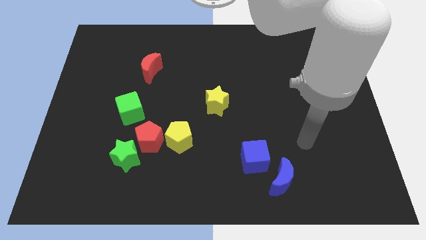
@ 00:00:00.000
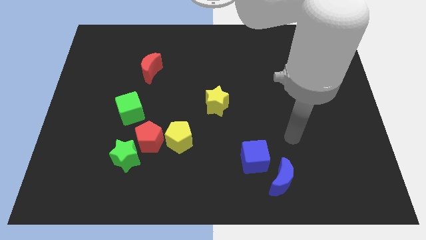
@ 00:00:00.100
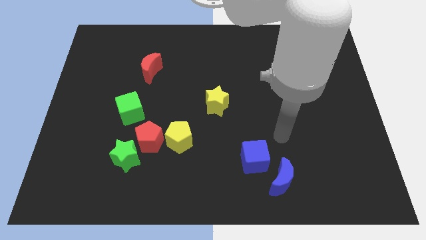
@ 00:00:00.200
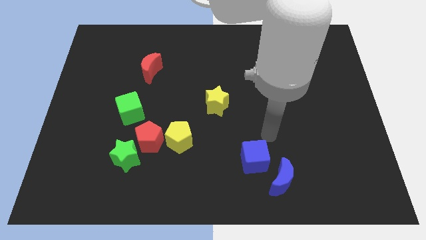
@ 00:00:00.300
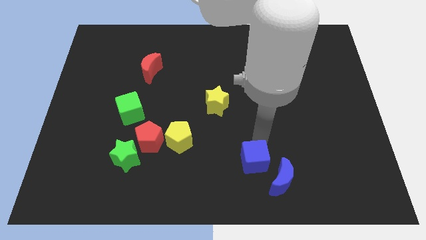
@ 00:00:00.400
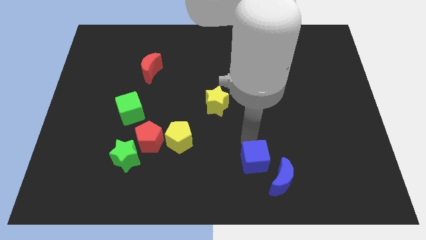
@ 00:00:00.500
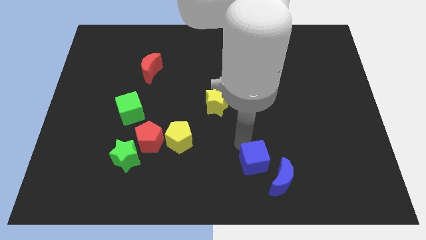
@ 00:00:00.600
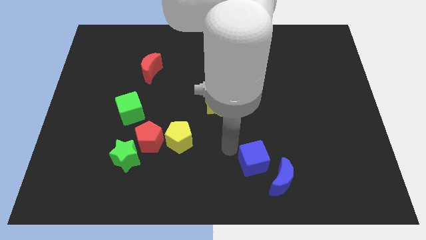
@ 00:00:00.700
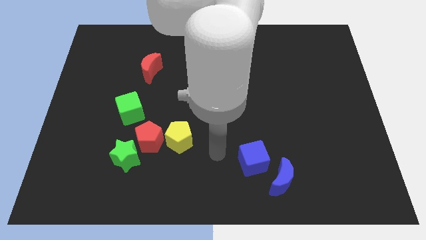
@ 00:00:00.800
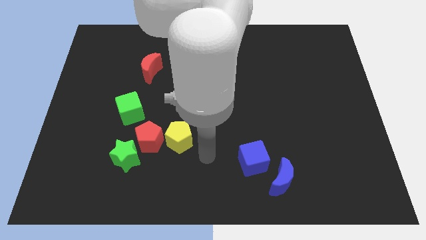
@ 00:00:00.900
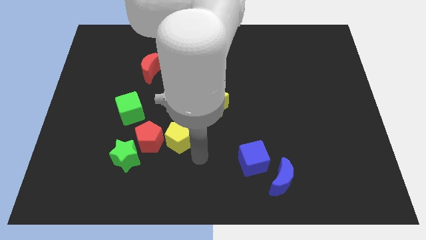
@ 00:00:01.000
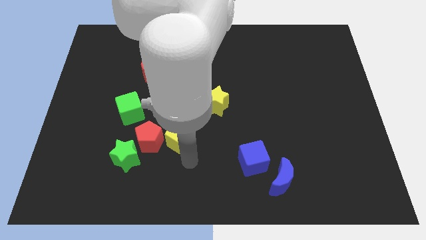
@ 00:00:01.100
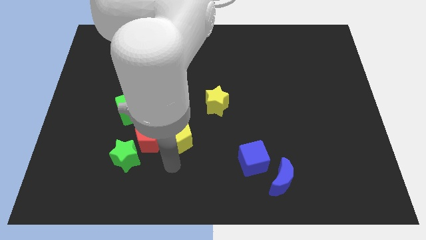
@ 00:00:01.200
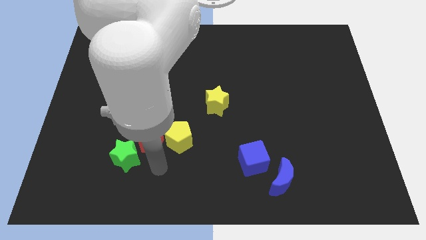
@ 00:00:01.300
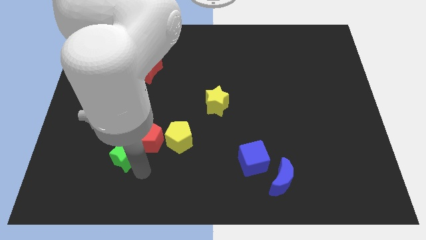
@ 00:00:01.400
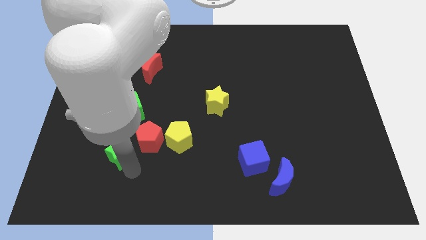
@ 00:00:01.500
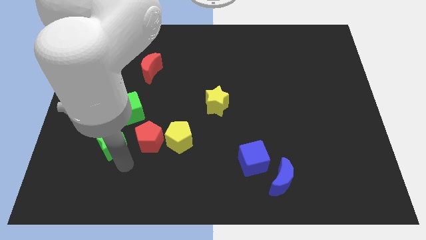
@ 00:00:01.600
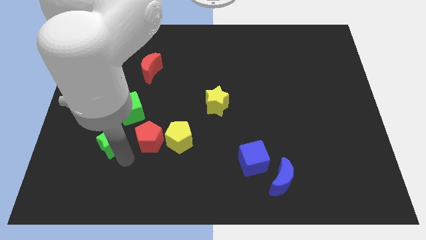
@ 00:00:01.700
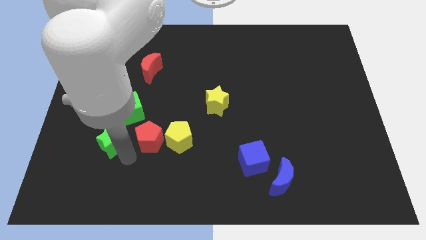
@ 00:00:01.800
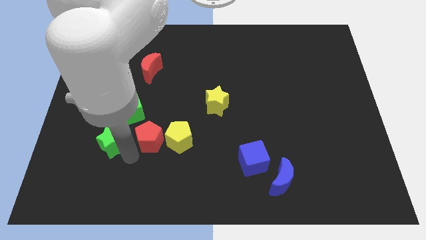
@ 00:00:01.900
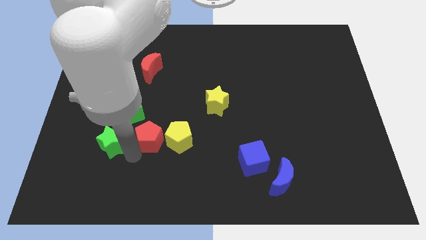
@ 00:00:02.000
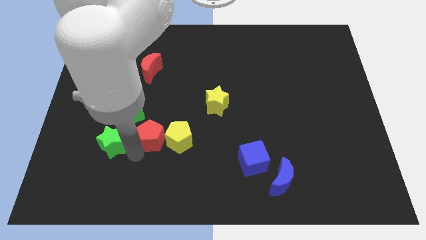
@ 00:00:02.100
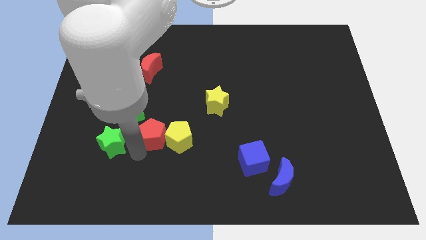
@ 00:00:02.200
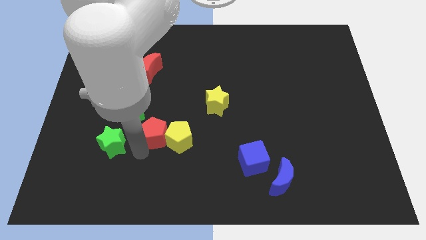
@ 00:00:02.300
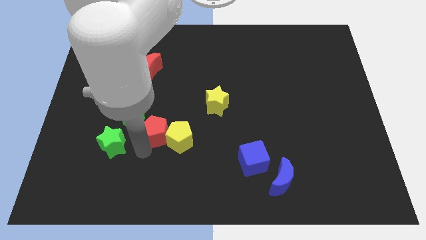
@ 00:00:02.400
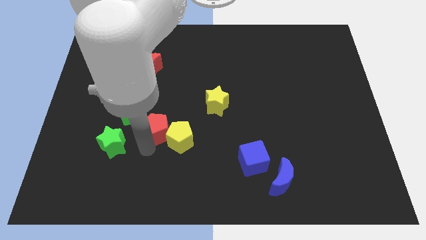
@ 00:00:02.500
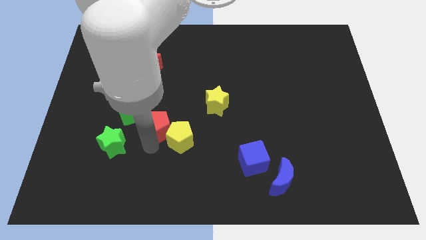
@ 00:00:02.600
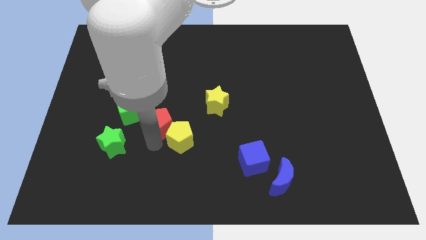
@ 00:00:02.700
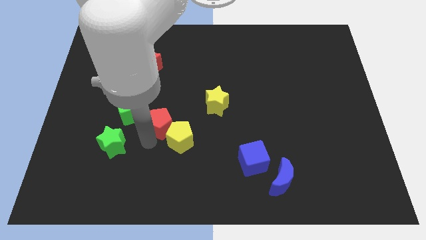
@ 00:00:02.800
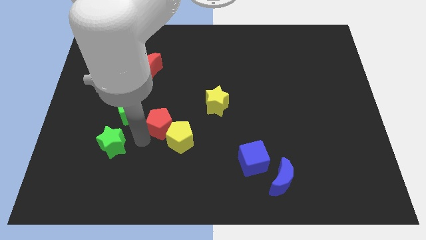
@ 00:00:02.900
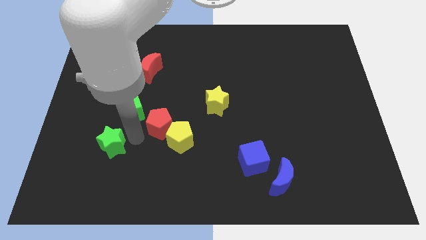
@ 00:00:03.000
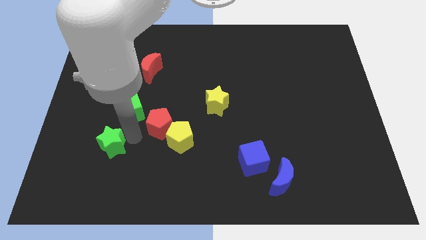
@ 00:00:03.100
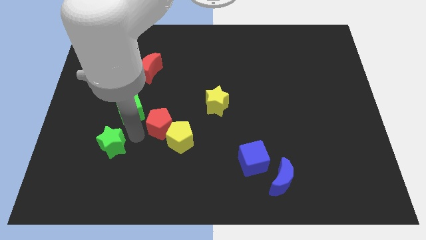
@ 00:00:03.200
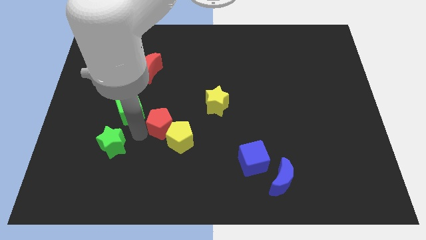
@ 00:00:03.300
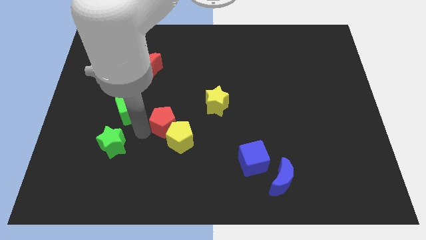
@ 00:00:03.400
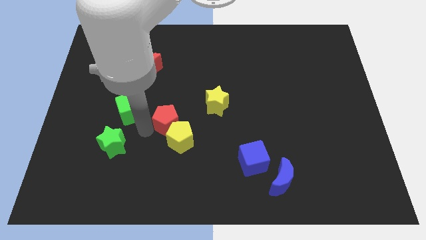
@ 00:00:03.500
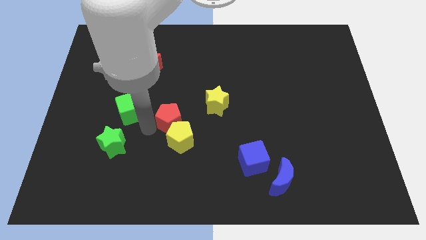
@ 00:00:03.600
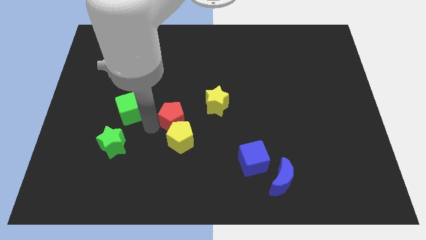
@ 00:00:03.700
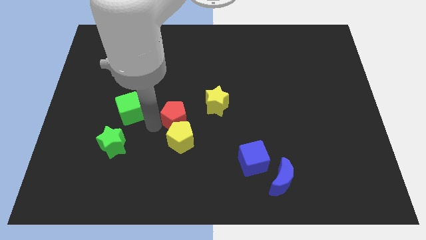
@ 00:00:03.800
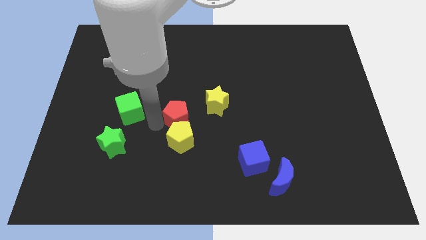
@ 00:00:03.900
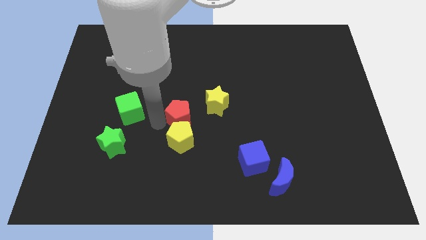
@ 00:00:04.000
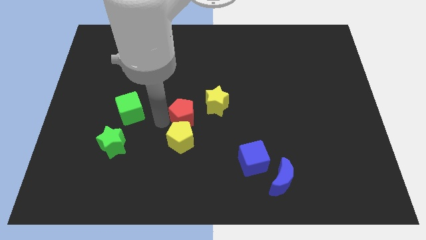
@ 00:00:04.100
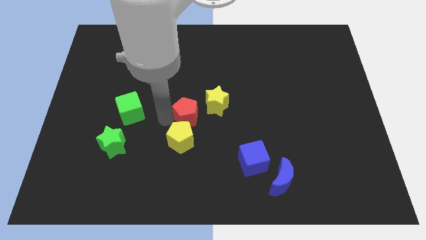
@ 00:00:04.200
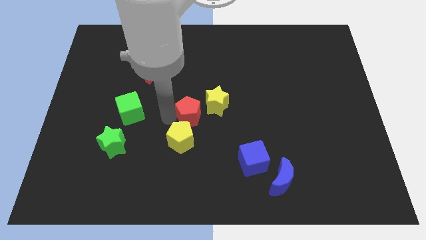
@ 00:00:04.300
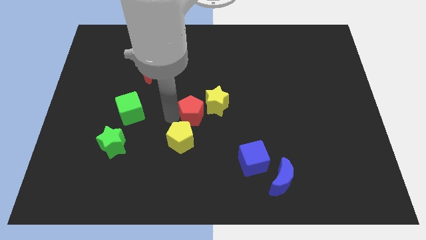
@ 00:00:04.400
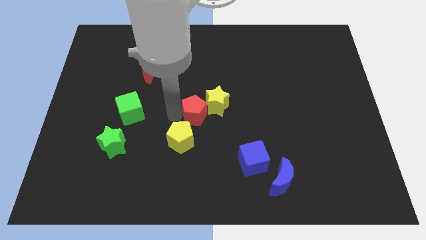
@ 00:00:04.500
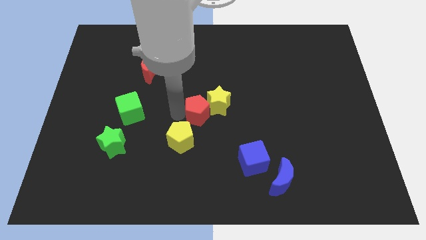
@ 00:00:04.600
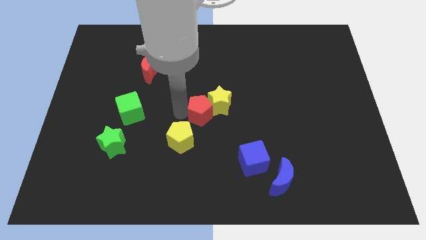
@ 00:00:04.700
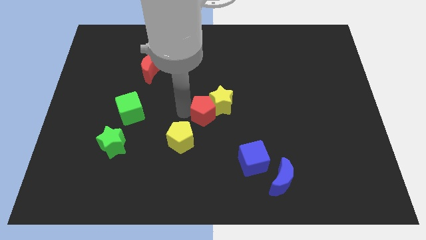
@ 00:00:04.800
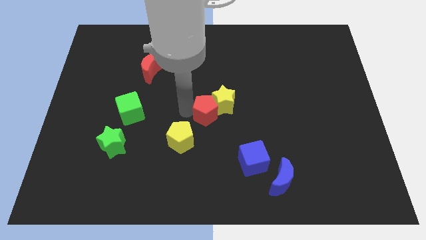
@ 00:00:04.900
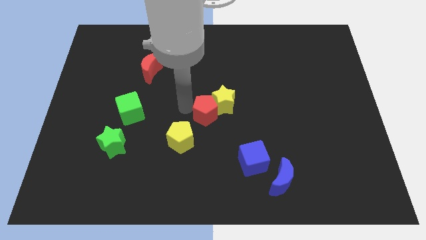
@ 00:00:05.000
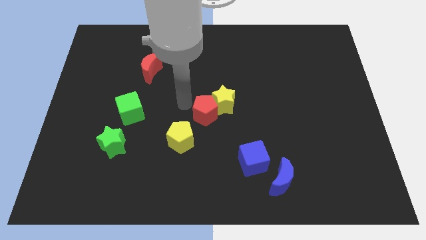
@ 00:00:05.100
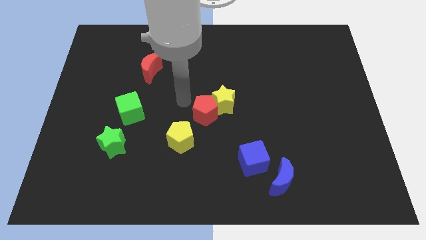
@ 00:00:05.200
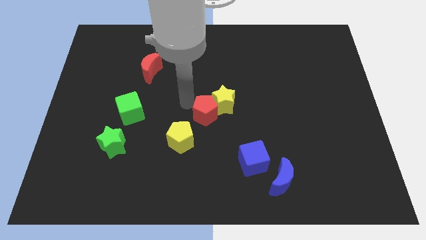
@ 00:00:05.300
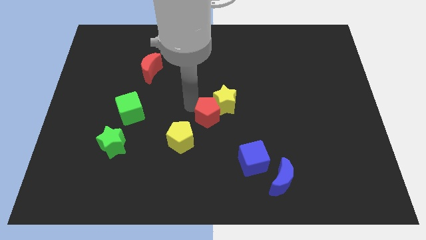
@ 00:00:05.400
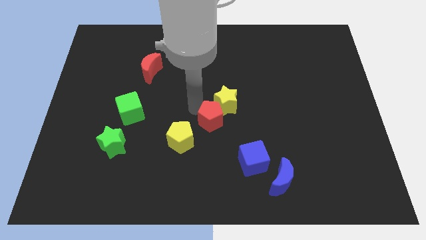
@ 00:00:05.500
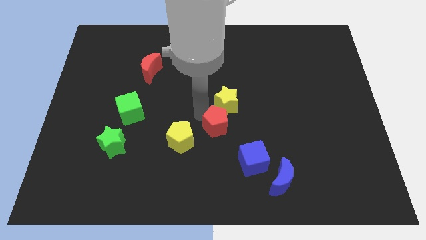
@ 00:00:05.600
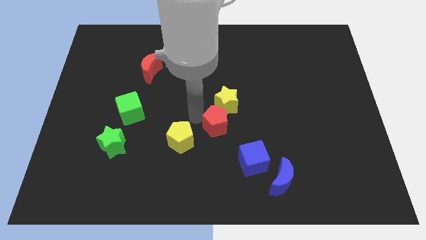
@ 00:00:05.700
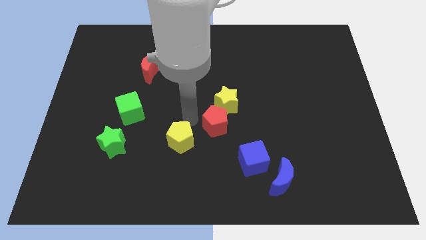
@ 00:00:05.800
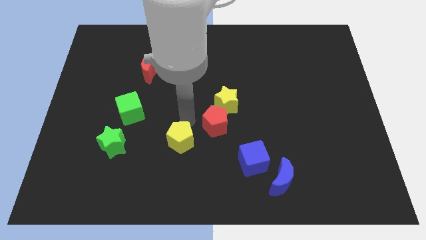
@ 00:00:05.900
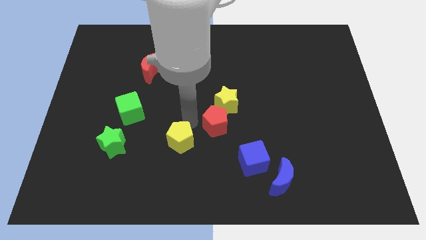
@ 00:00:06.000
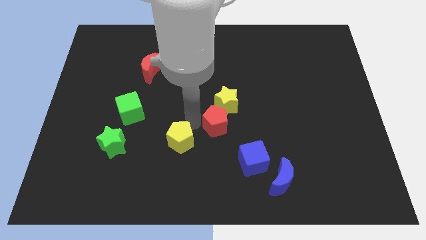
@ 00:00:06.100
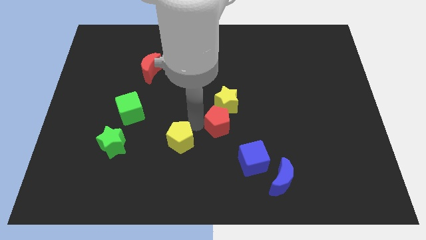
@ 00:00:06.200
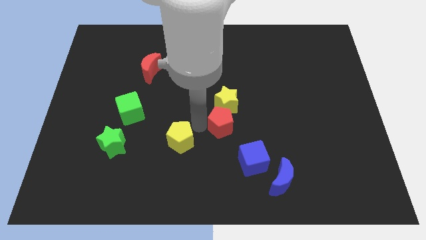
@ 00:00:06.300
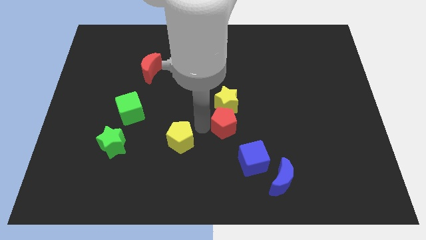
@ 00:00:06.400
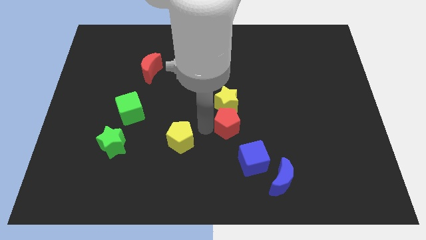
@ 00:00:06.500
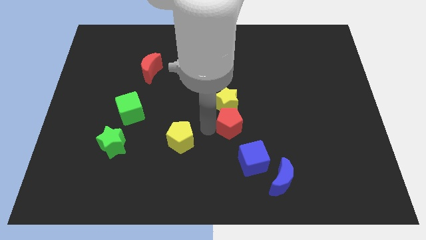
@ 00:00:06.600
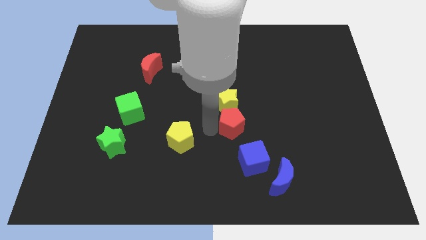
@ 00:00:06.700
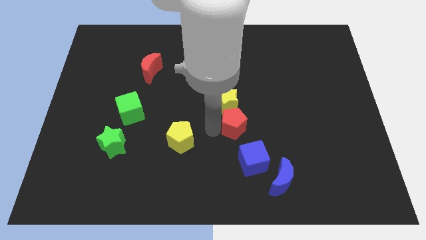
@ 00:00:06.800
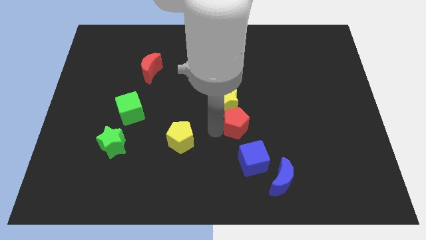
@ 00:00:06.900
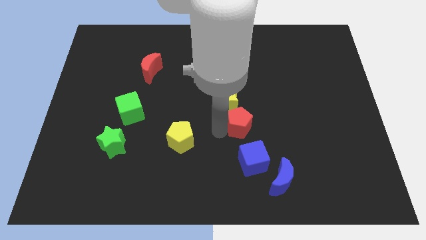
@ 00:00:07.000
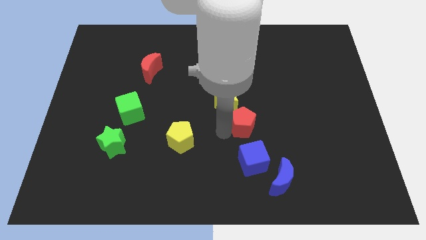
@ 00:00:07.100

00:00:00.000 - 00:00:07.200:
move the red pentagon right

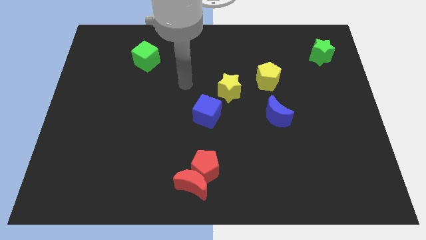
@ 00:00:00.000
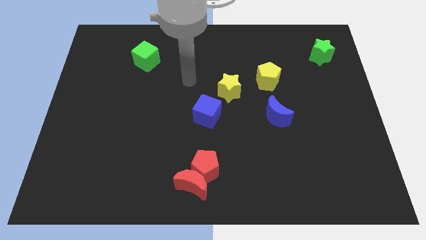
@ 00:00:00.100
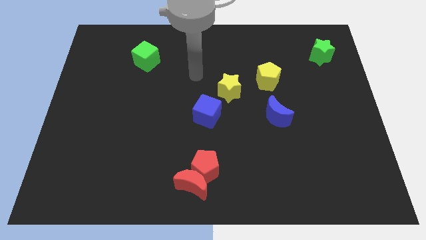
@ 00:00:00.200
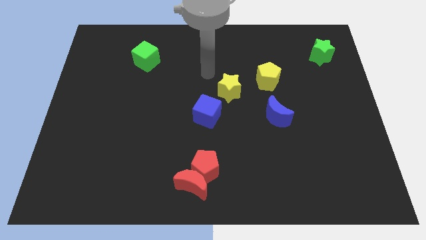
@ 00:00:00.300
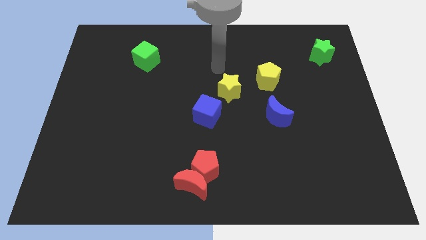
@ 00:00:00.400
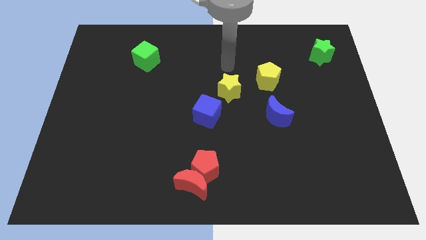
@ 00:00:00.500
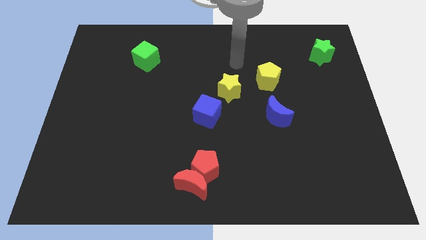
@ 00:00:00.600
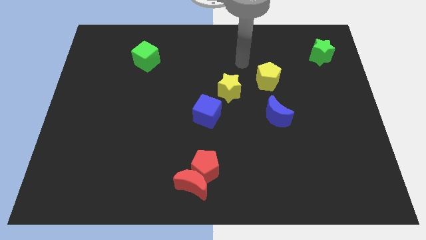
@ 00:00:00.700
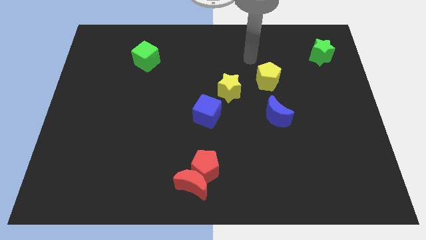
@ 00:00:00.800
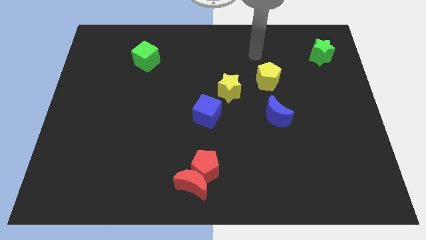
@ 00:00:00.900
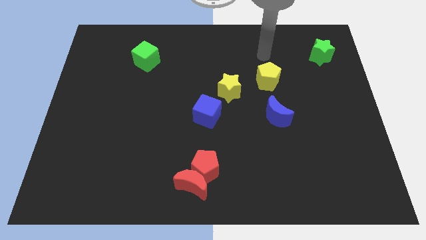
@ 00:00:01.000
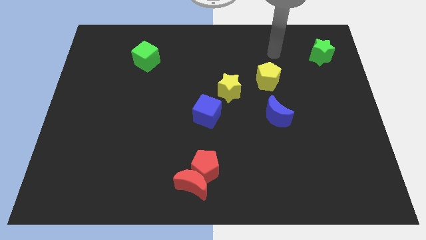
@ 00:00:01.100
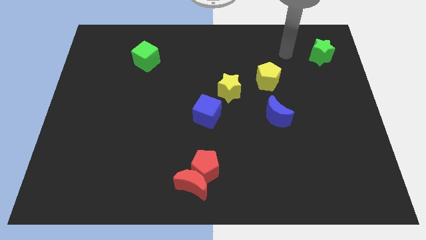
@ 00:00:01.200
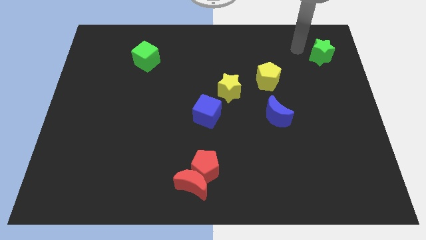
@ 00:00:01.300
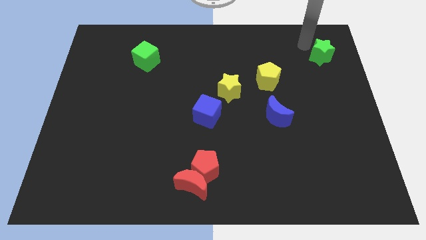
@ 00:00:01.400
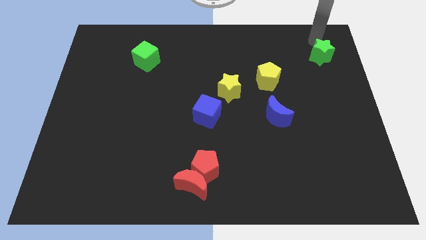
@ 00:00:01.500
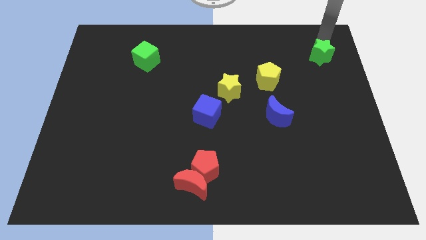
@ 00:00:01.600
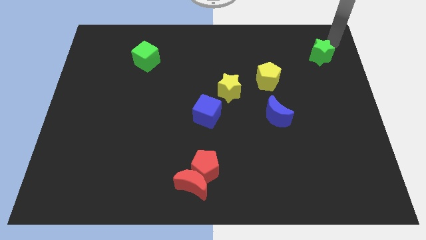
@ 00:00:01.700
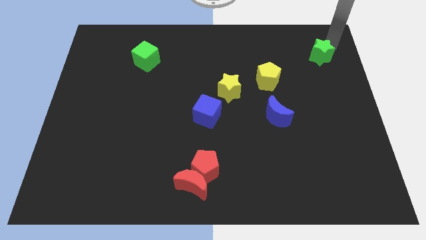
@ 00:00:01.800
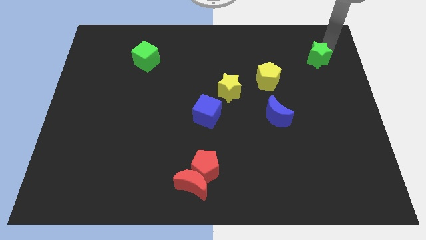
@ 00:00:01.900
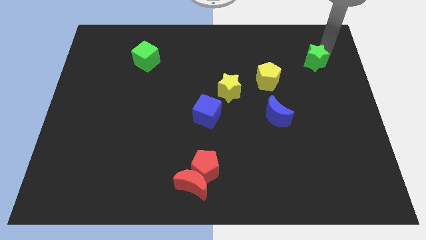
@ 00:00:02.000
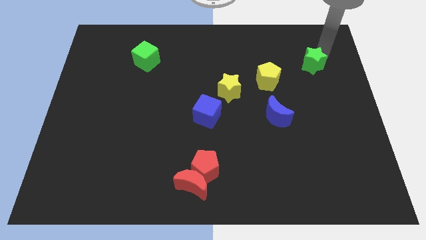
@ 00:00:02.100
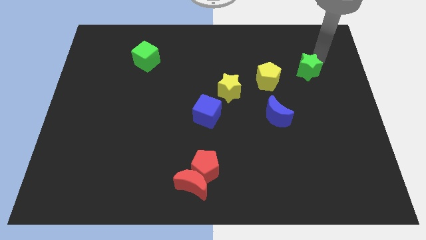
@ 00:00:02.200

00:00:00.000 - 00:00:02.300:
slide the green star a bit downwards and to the left diagonally
